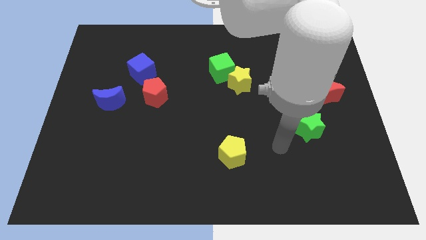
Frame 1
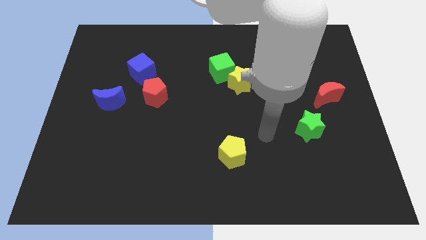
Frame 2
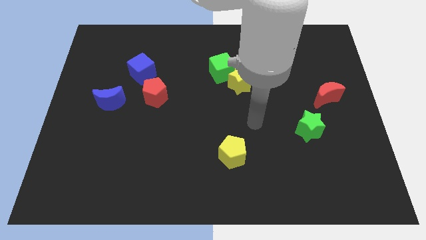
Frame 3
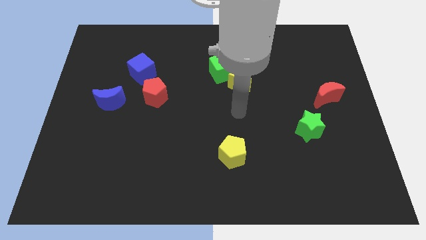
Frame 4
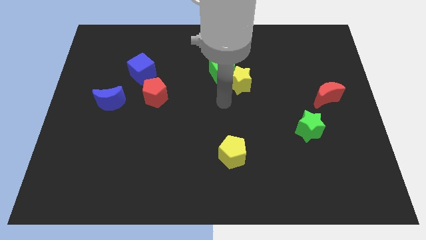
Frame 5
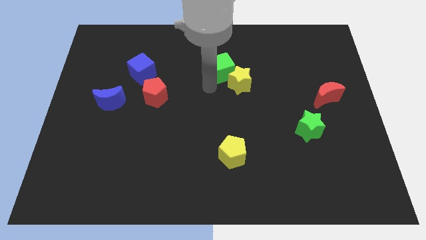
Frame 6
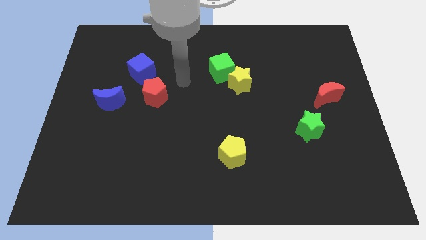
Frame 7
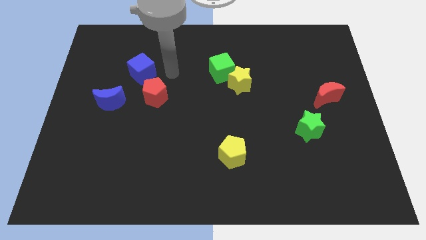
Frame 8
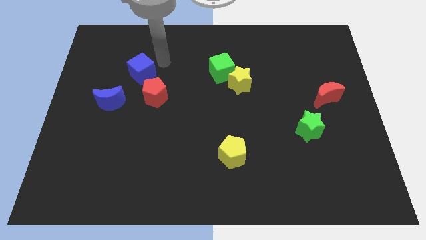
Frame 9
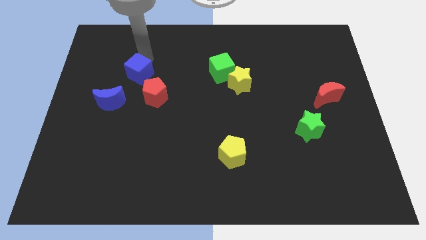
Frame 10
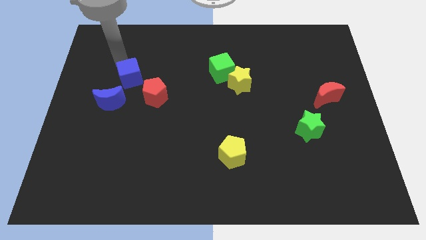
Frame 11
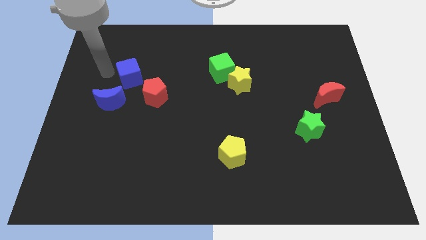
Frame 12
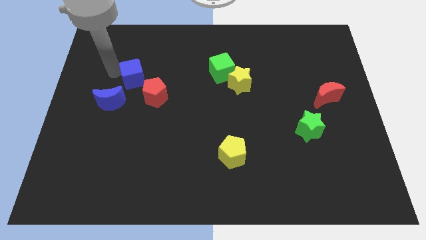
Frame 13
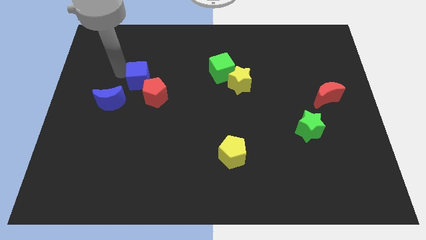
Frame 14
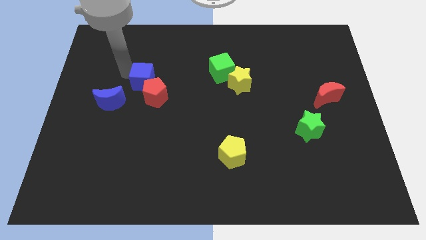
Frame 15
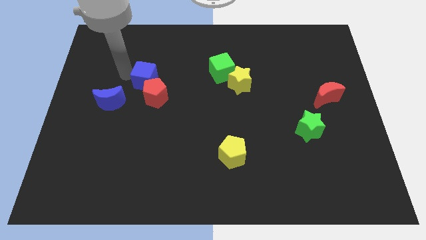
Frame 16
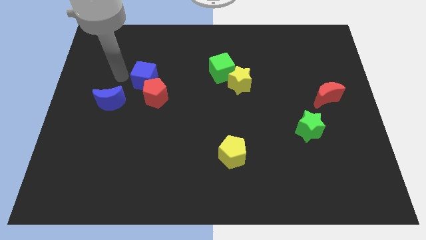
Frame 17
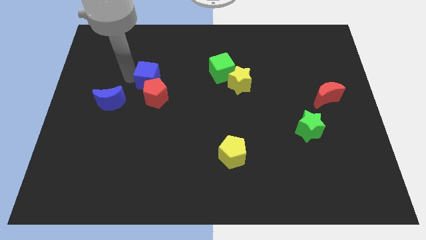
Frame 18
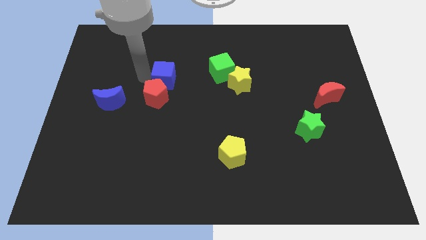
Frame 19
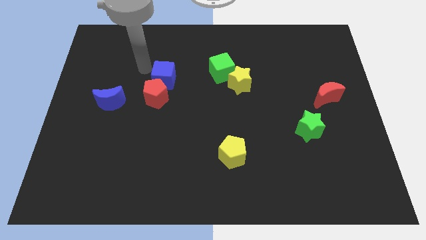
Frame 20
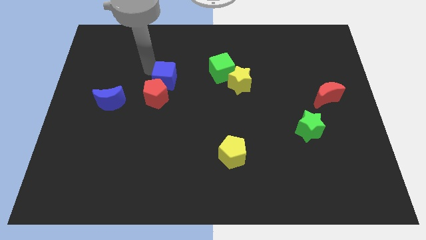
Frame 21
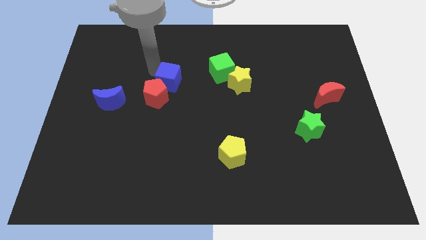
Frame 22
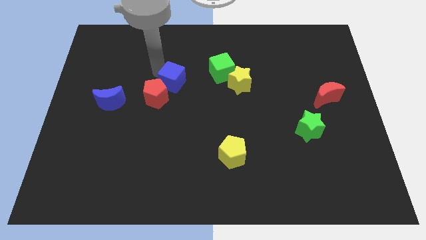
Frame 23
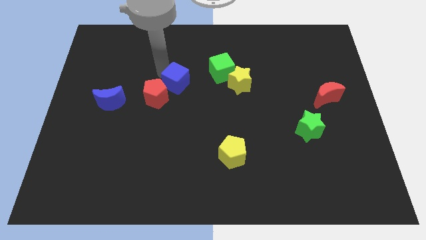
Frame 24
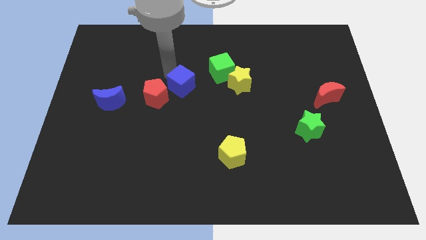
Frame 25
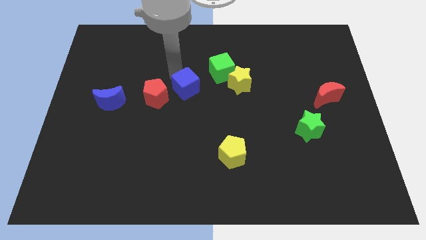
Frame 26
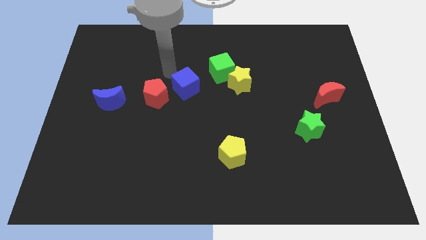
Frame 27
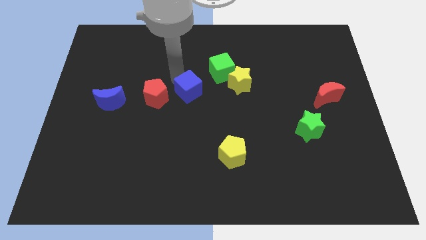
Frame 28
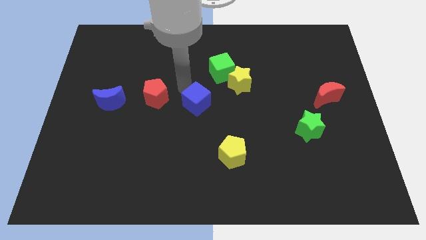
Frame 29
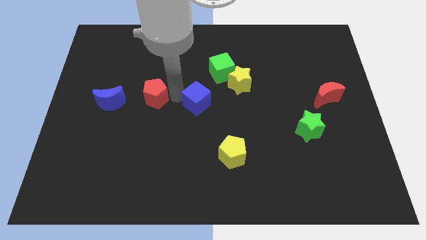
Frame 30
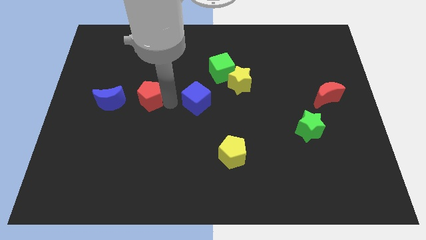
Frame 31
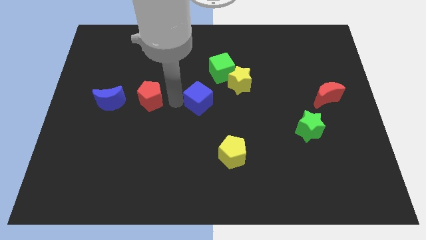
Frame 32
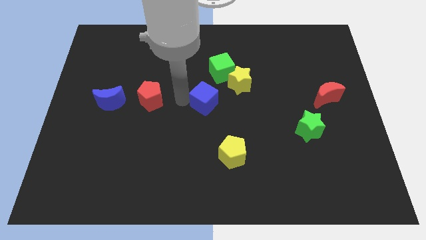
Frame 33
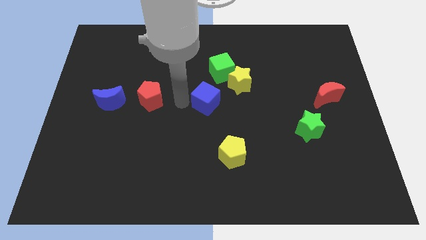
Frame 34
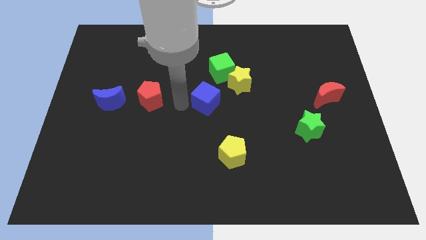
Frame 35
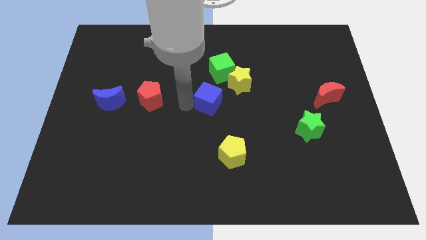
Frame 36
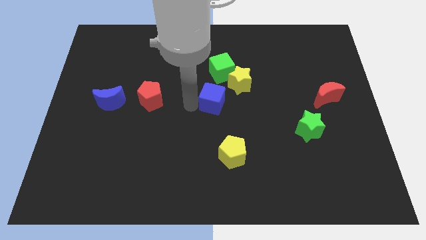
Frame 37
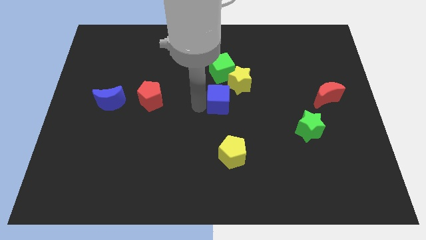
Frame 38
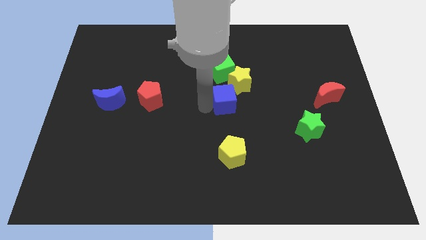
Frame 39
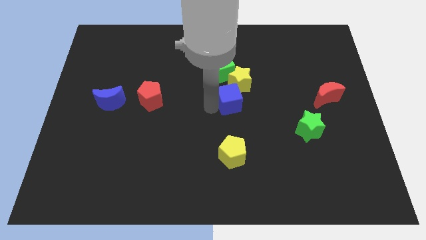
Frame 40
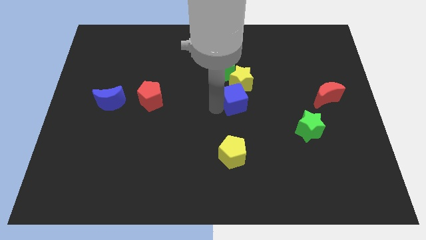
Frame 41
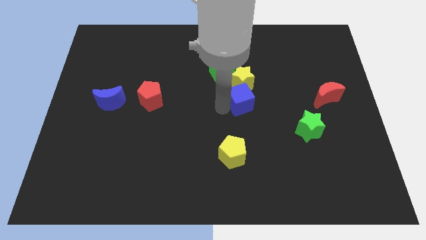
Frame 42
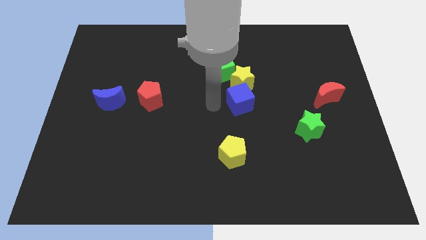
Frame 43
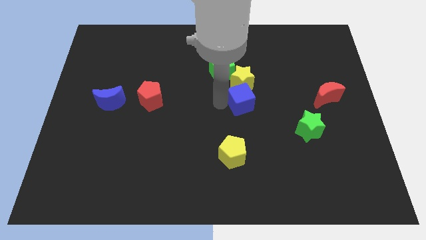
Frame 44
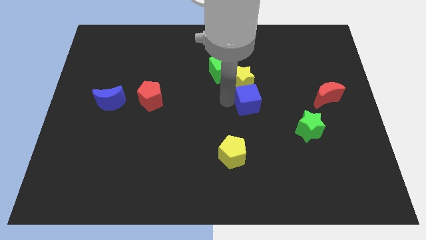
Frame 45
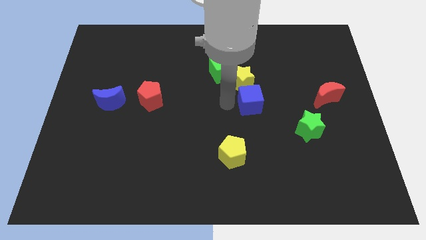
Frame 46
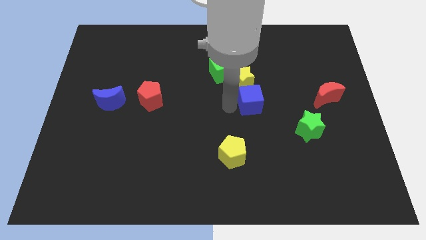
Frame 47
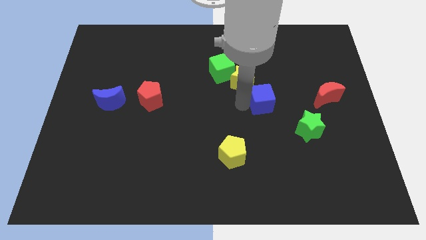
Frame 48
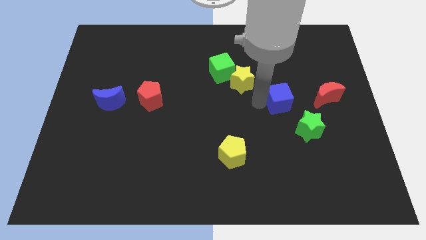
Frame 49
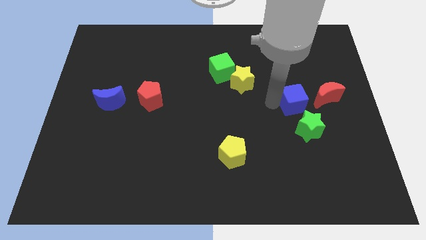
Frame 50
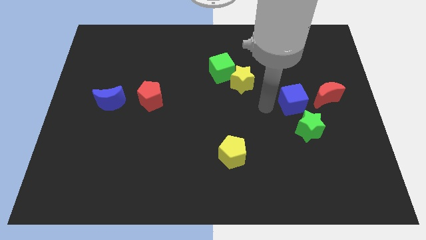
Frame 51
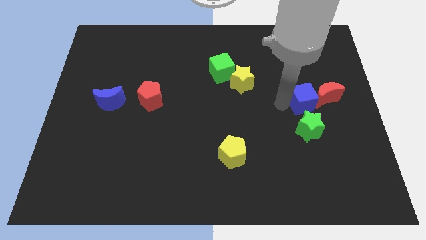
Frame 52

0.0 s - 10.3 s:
put the blue cube to the red moon
